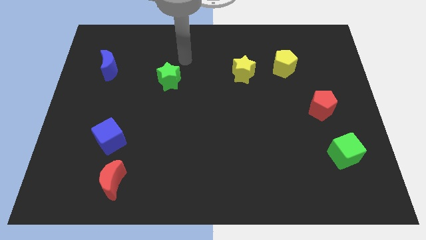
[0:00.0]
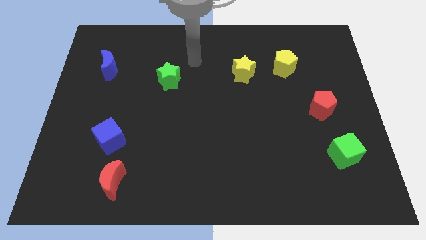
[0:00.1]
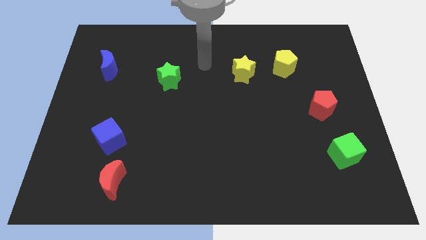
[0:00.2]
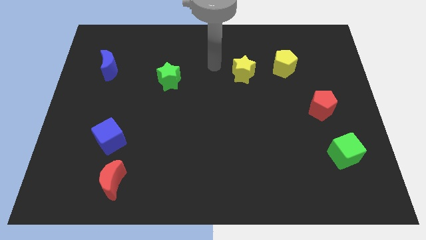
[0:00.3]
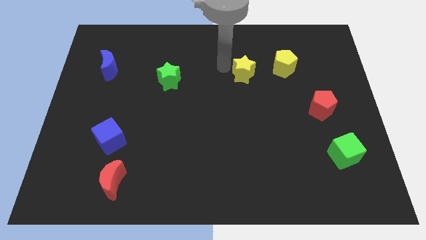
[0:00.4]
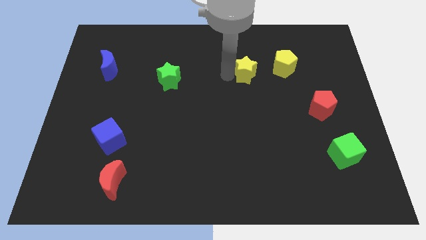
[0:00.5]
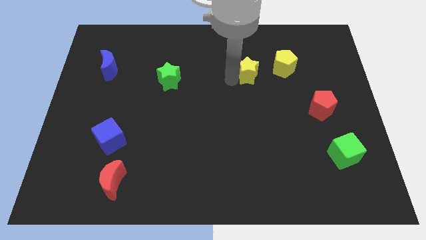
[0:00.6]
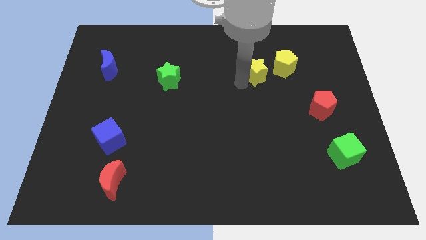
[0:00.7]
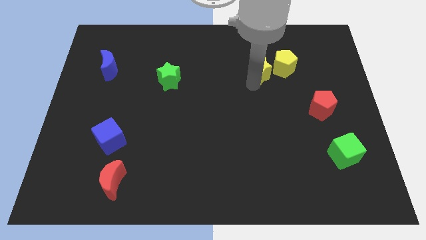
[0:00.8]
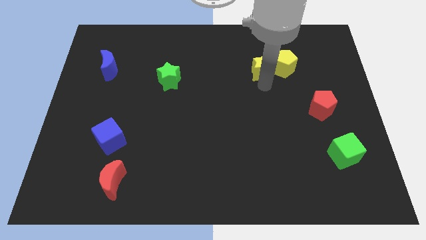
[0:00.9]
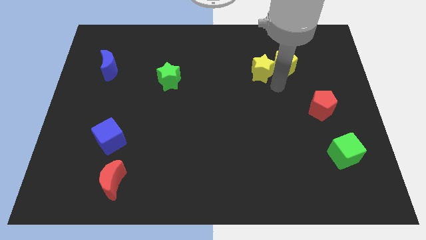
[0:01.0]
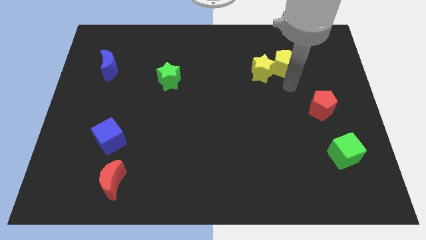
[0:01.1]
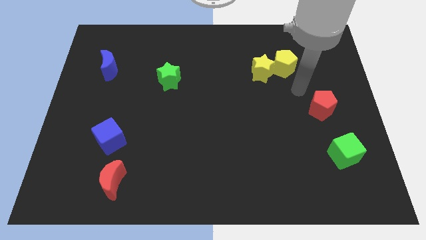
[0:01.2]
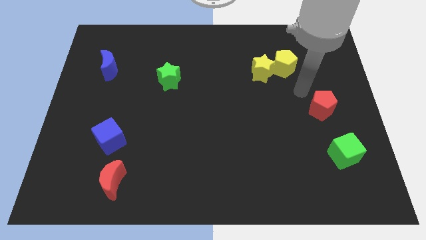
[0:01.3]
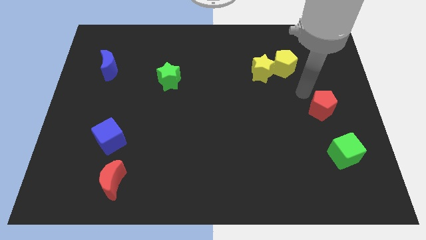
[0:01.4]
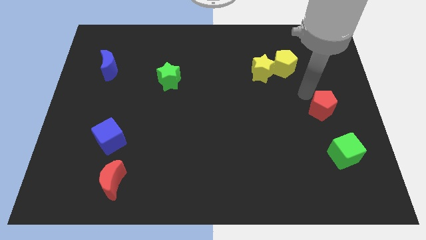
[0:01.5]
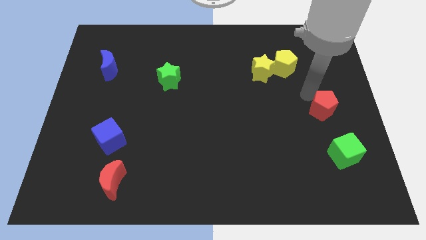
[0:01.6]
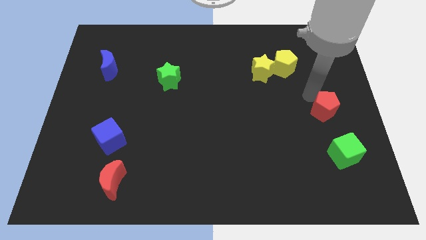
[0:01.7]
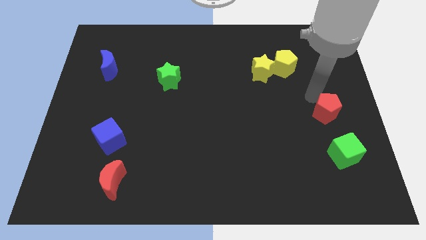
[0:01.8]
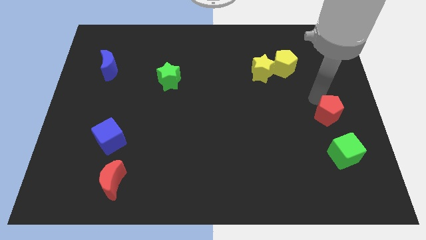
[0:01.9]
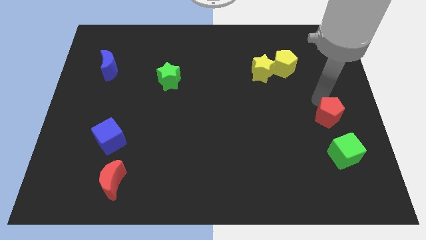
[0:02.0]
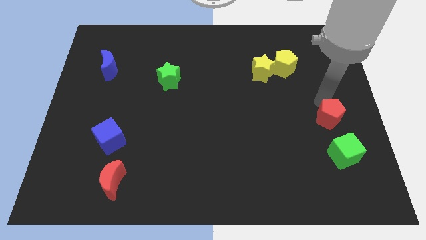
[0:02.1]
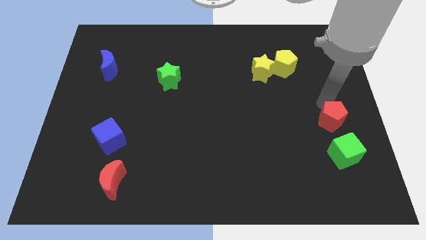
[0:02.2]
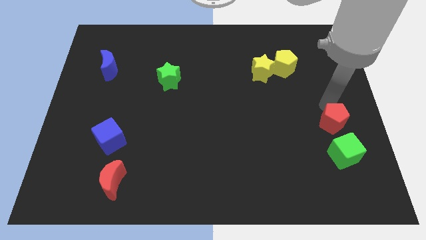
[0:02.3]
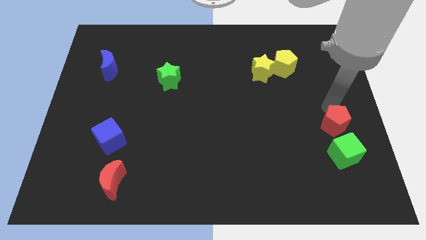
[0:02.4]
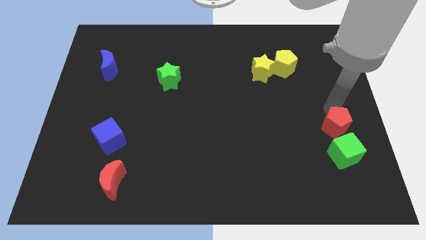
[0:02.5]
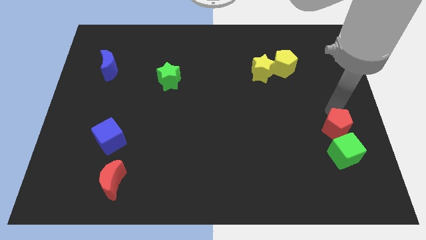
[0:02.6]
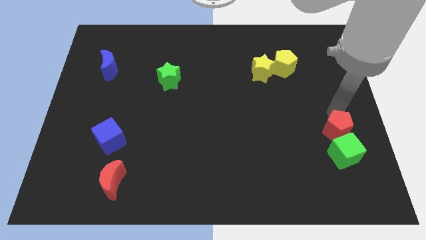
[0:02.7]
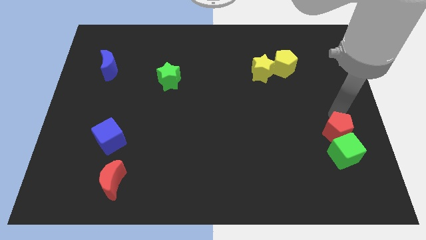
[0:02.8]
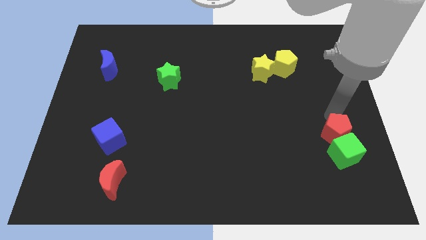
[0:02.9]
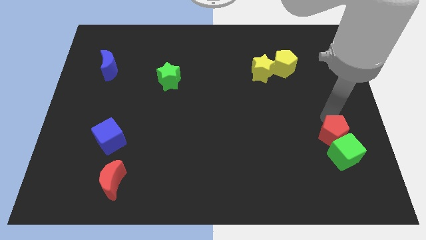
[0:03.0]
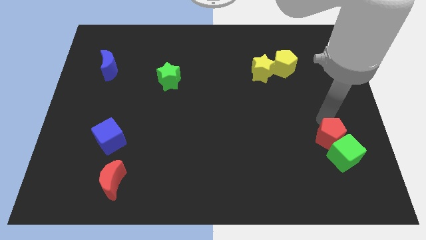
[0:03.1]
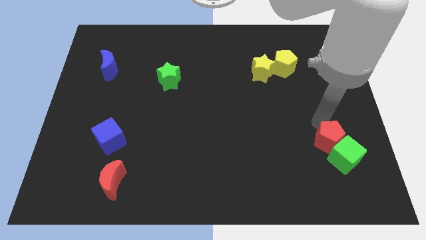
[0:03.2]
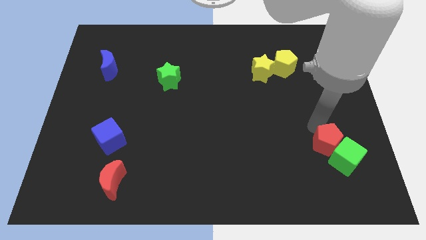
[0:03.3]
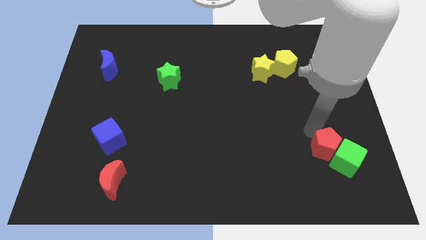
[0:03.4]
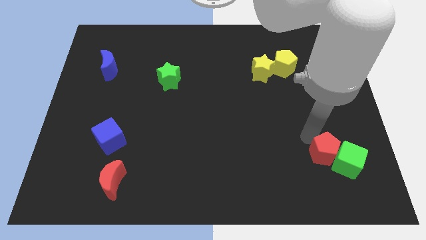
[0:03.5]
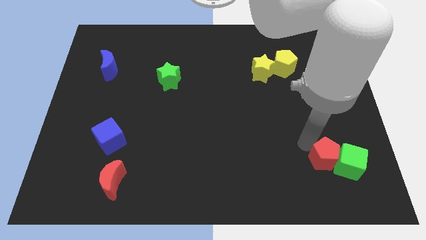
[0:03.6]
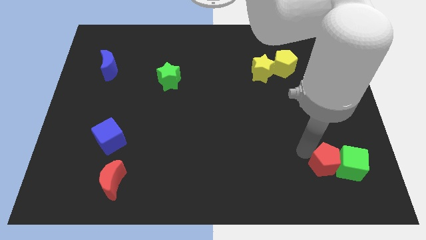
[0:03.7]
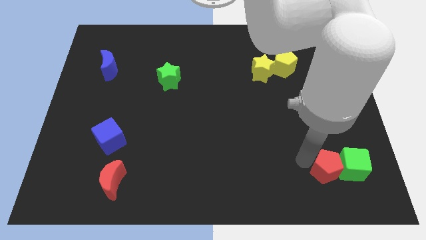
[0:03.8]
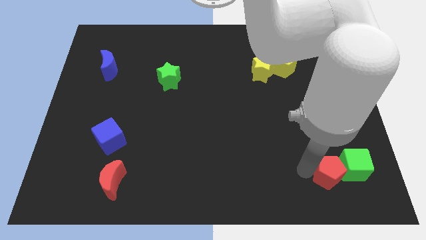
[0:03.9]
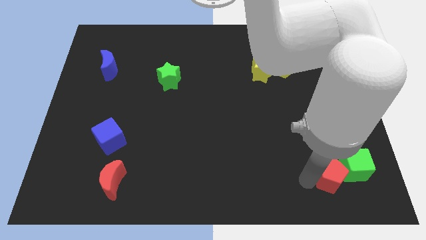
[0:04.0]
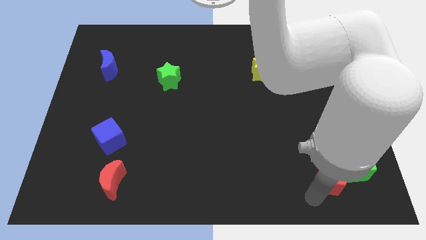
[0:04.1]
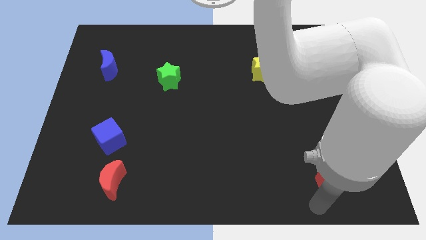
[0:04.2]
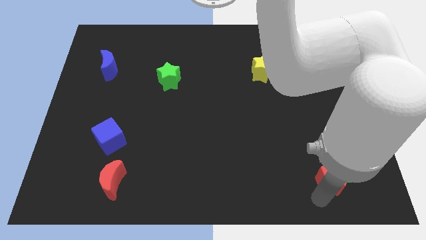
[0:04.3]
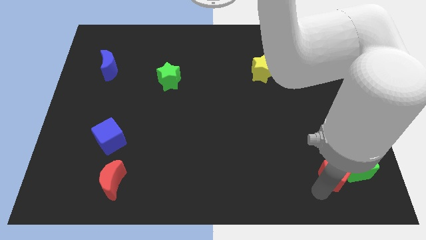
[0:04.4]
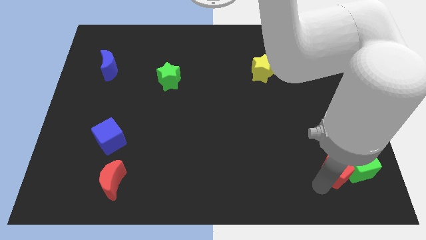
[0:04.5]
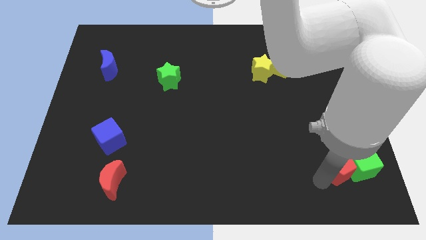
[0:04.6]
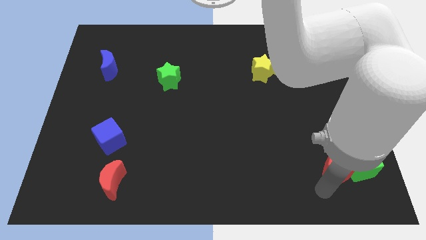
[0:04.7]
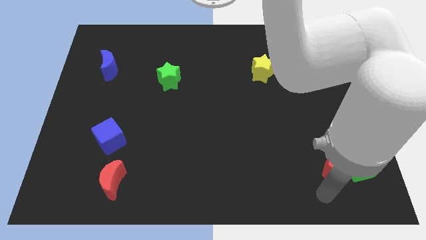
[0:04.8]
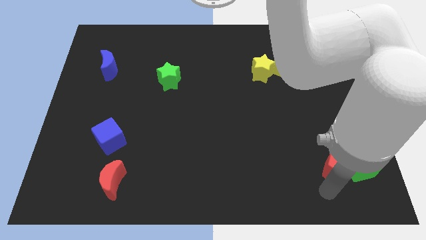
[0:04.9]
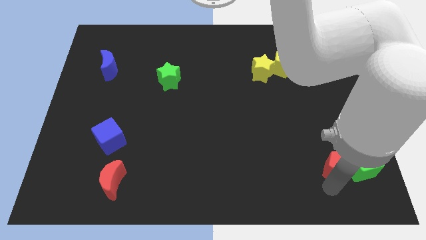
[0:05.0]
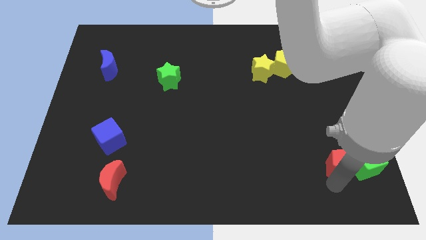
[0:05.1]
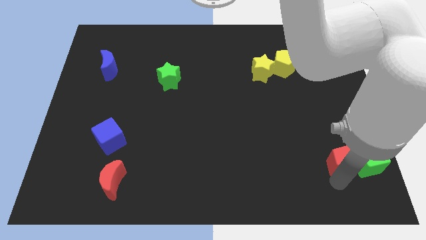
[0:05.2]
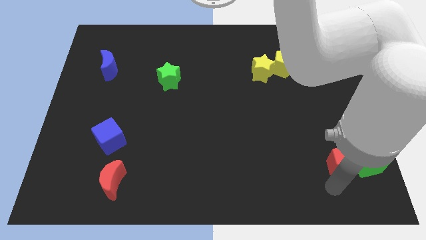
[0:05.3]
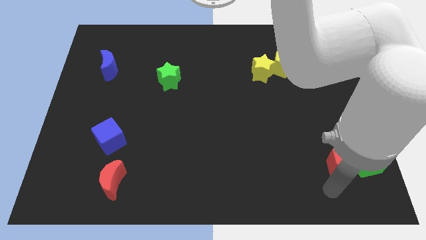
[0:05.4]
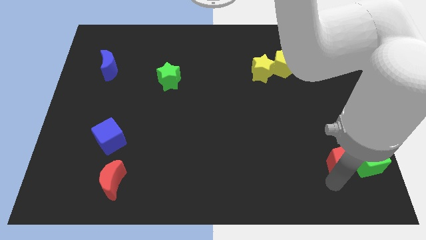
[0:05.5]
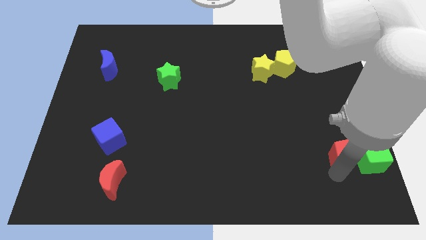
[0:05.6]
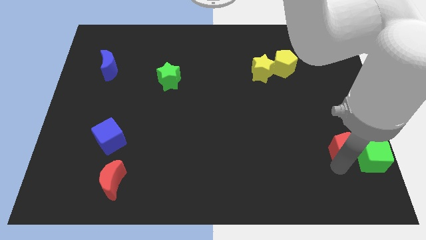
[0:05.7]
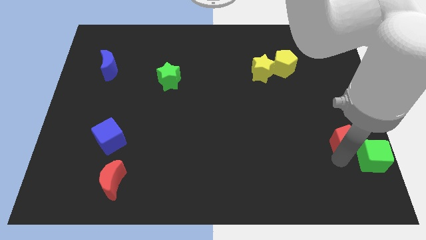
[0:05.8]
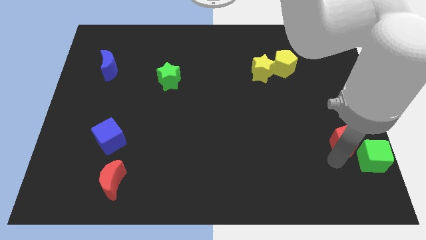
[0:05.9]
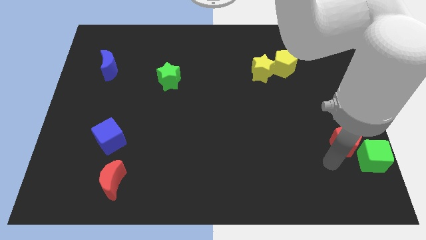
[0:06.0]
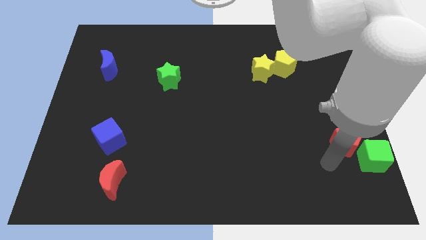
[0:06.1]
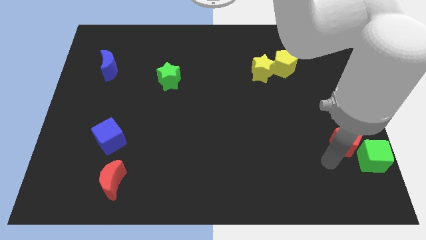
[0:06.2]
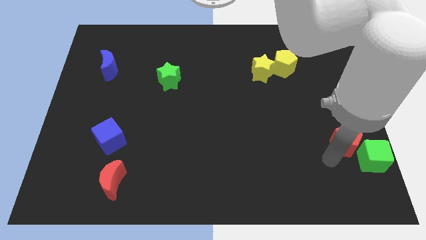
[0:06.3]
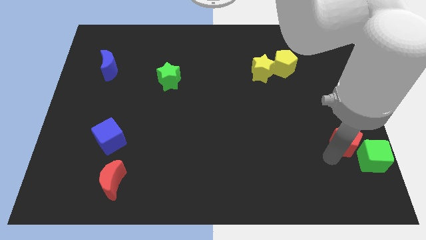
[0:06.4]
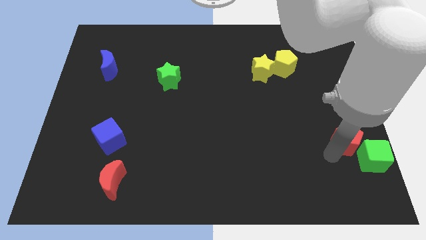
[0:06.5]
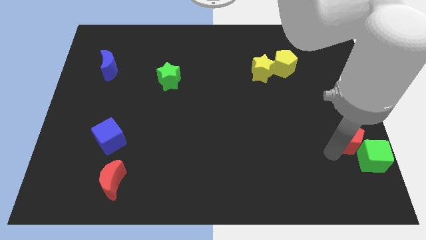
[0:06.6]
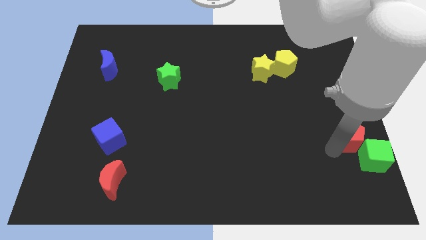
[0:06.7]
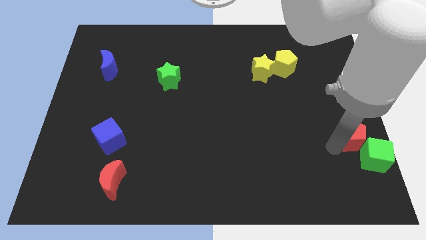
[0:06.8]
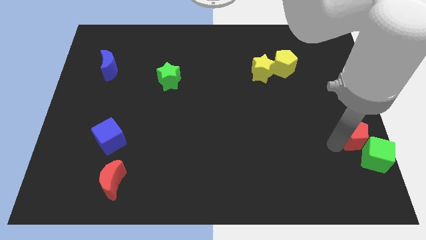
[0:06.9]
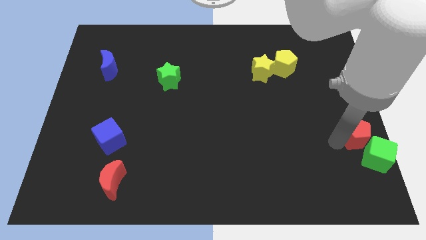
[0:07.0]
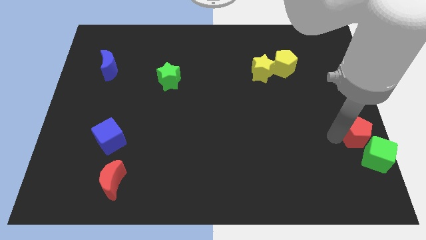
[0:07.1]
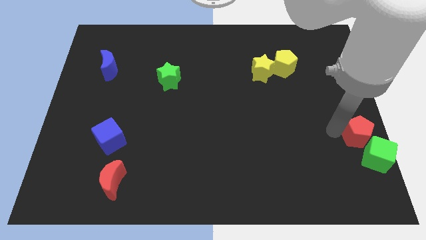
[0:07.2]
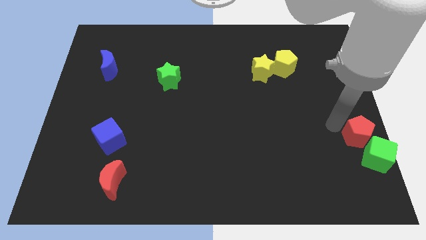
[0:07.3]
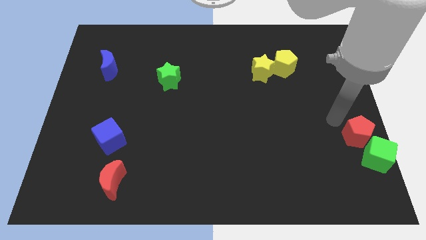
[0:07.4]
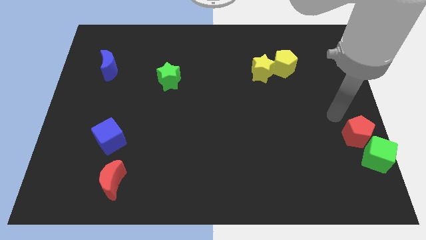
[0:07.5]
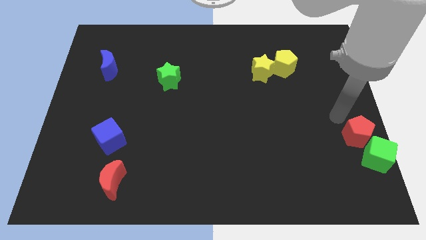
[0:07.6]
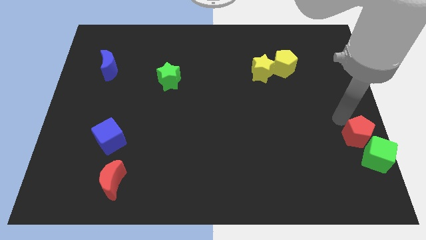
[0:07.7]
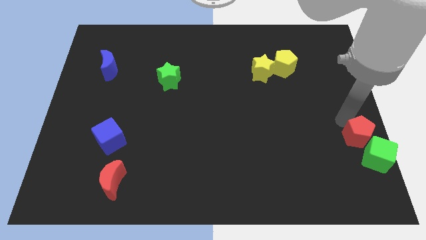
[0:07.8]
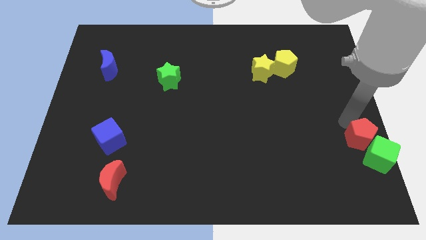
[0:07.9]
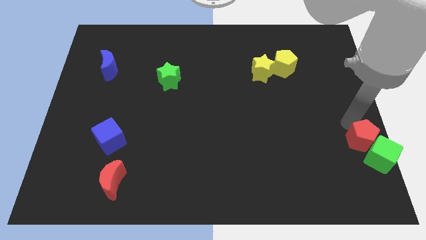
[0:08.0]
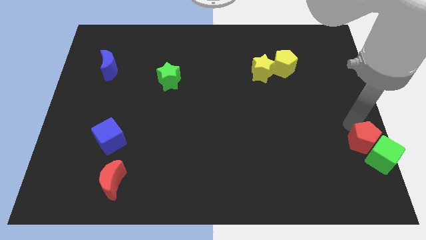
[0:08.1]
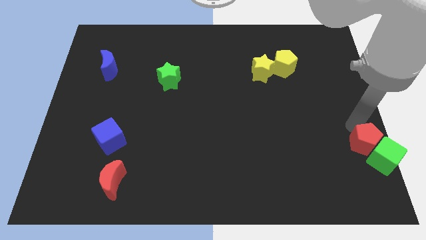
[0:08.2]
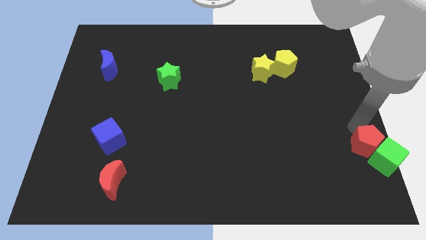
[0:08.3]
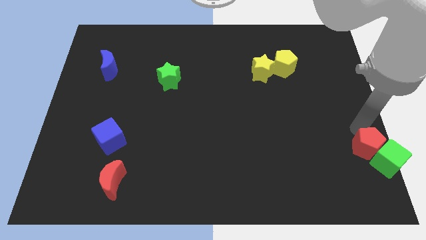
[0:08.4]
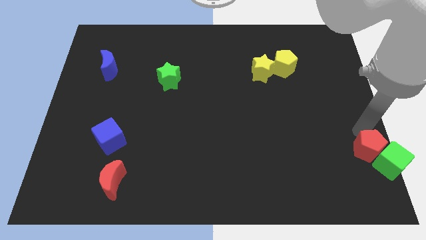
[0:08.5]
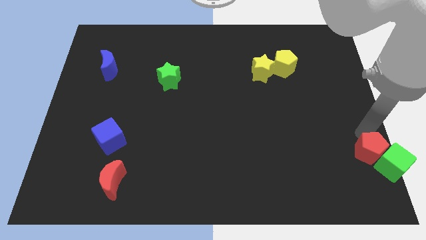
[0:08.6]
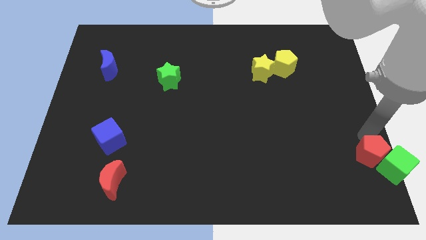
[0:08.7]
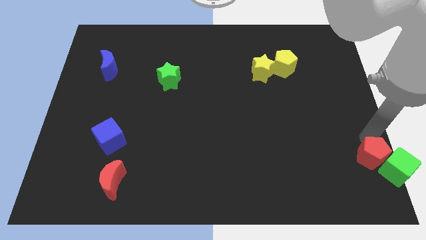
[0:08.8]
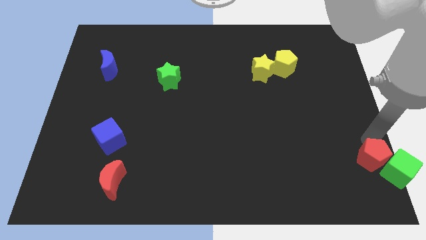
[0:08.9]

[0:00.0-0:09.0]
put the red pentagon to the lower right corner
